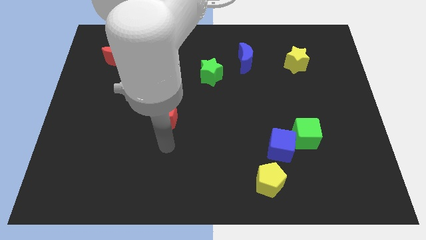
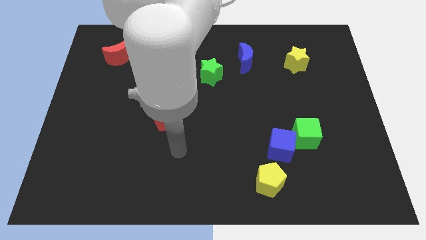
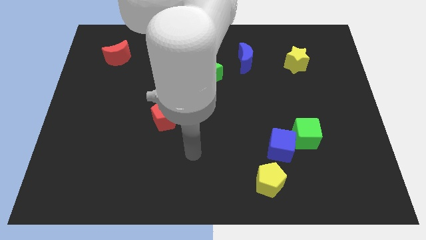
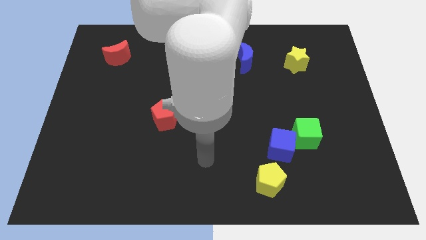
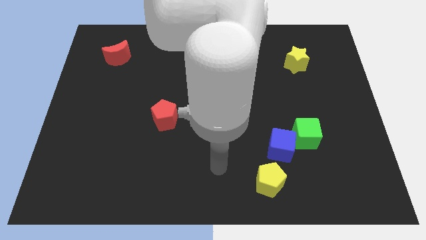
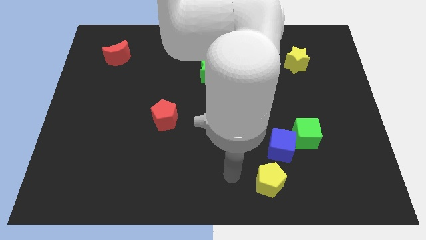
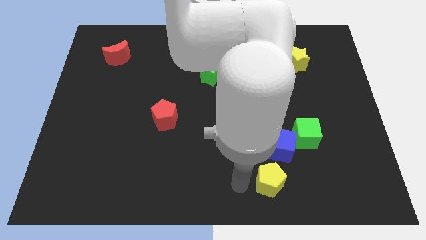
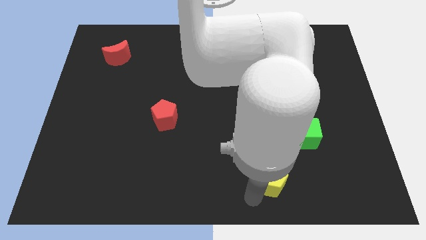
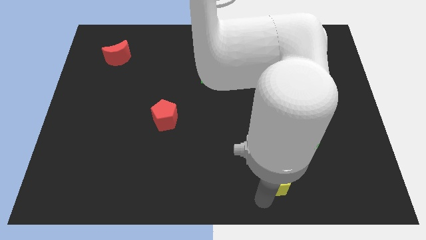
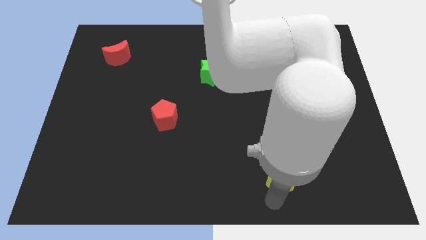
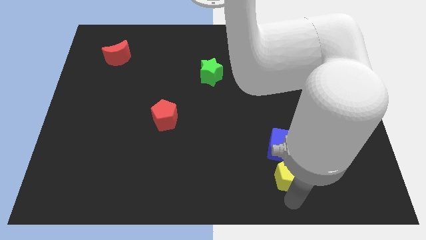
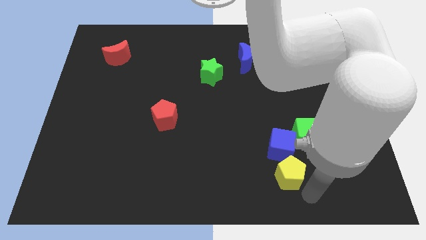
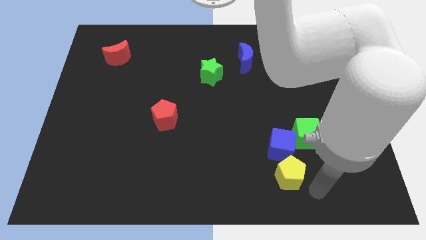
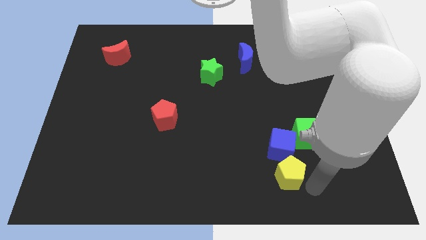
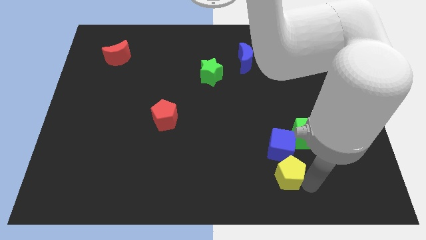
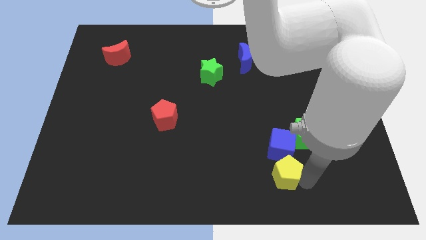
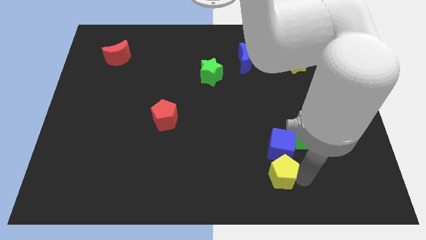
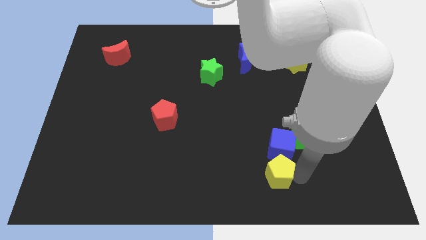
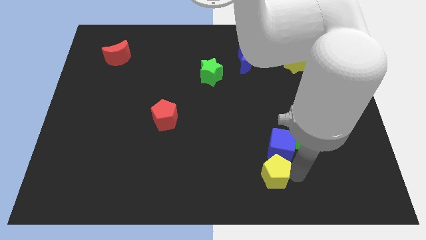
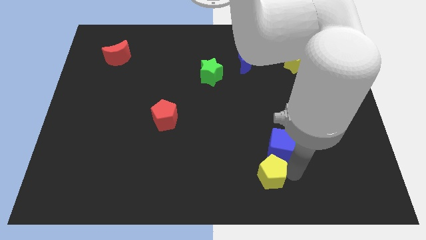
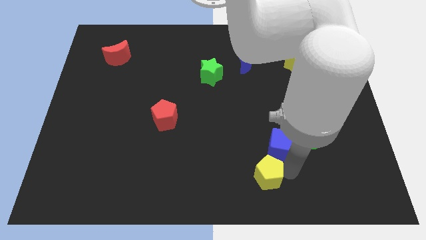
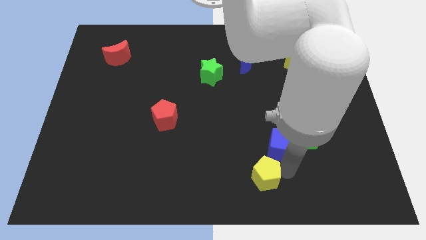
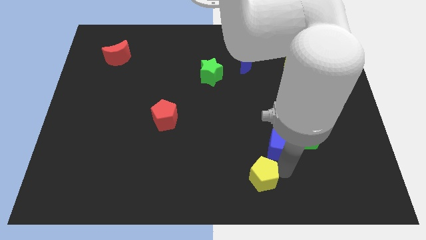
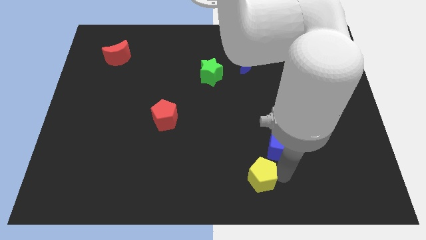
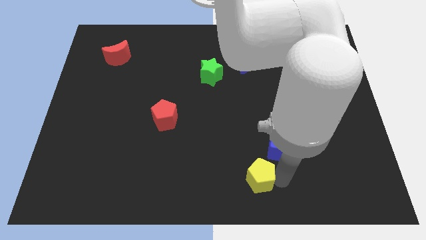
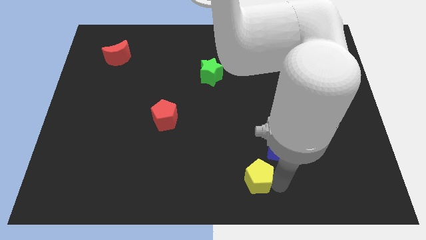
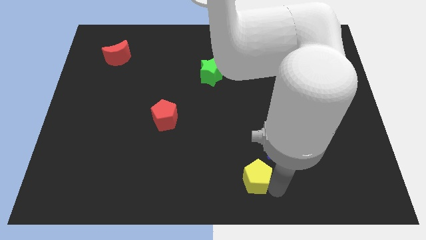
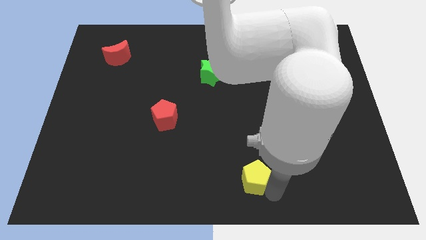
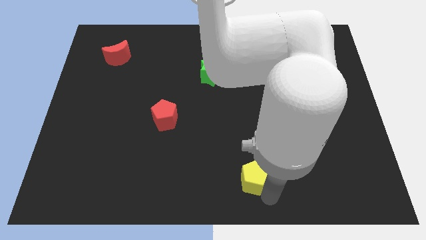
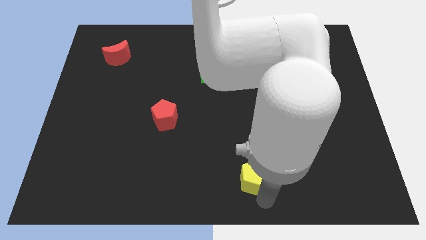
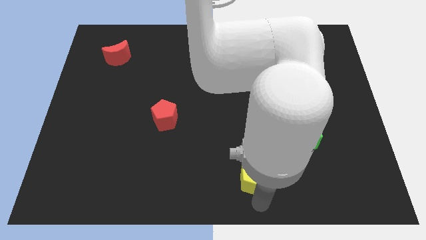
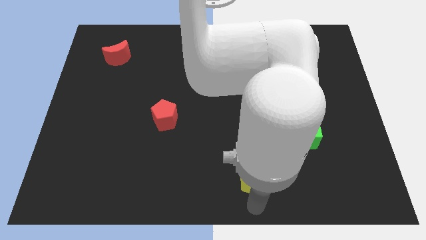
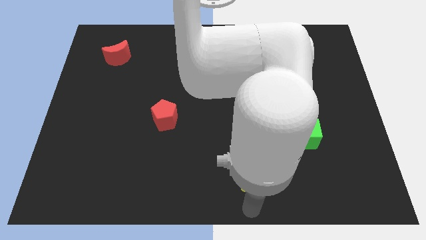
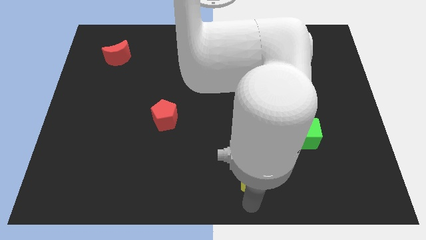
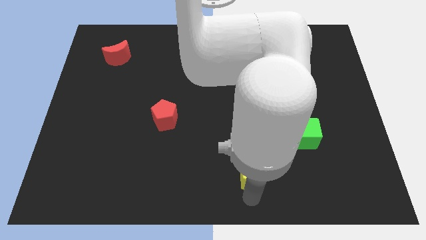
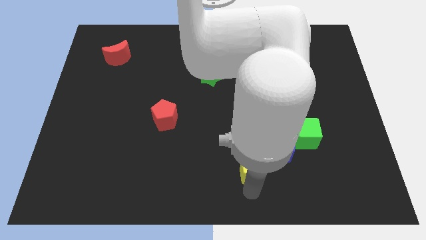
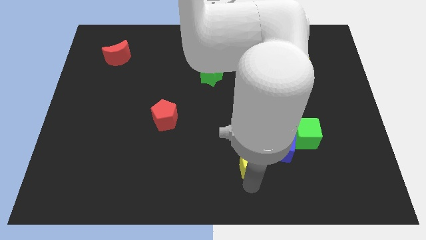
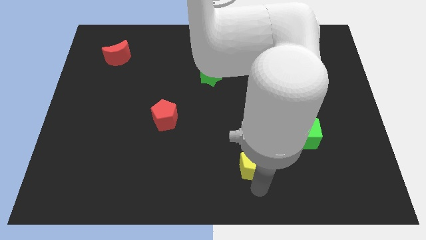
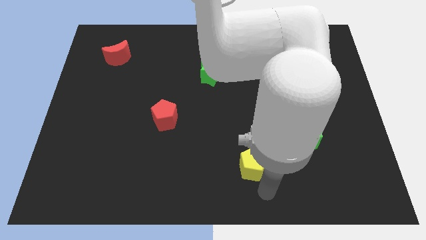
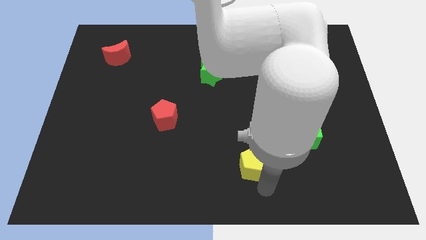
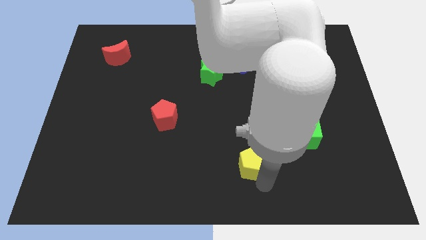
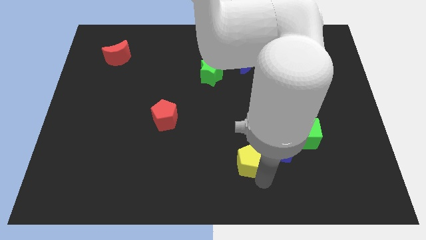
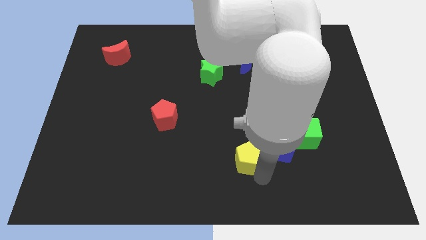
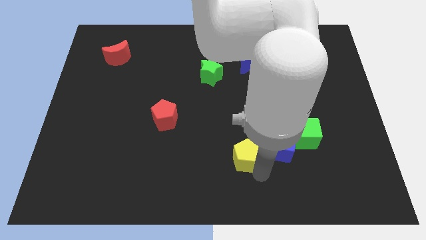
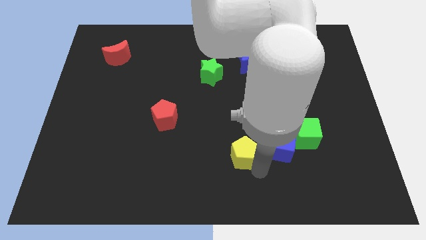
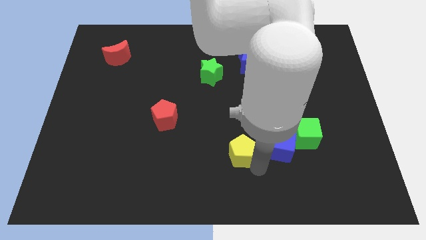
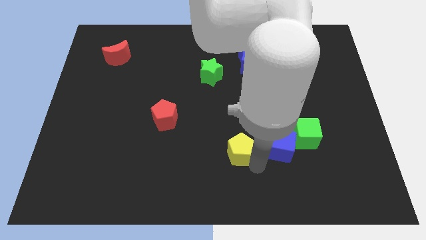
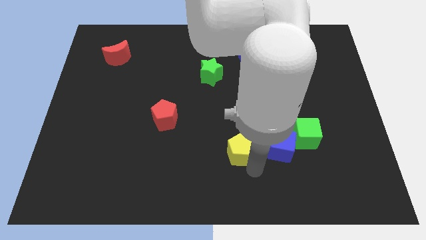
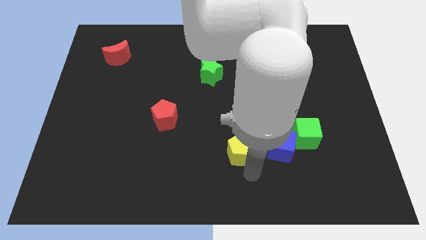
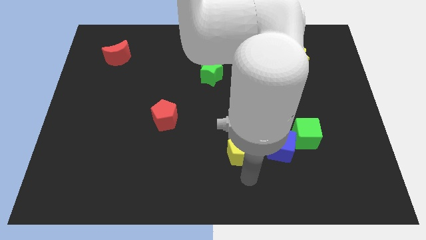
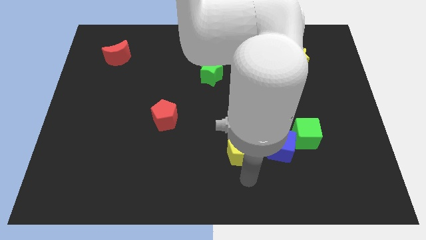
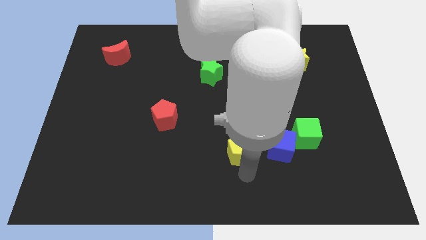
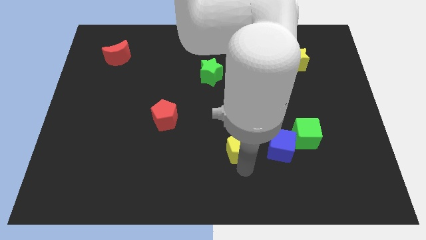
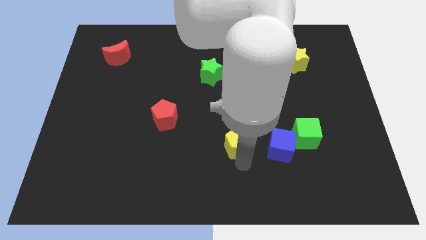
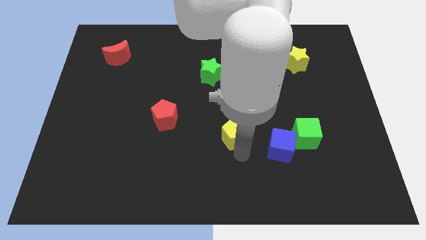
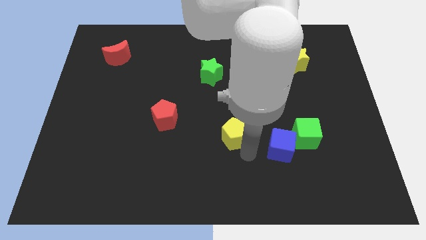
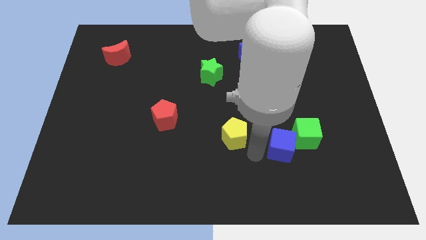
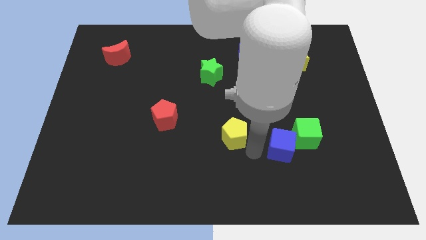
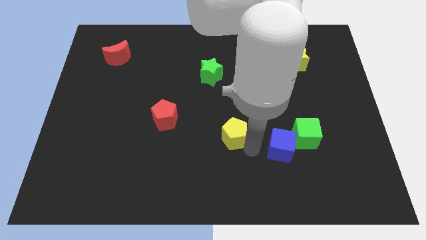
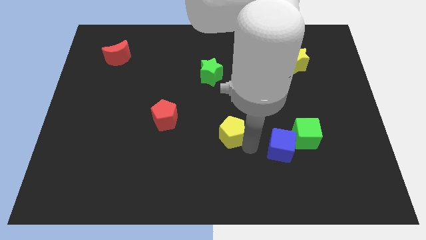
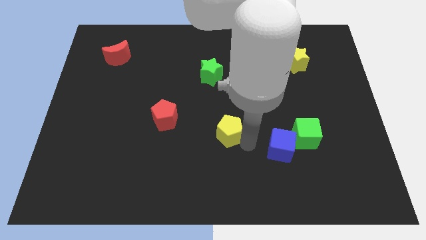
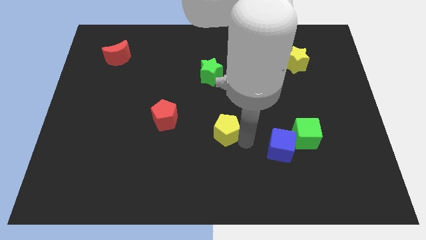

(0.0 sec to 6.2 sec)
slide the yellow pentagon just right of the red pentagon

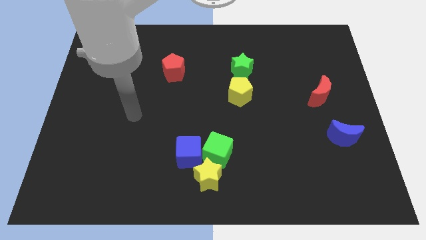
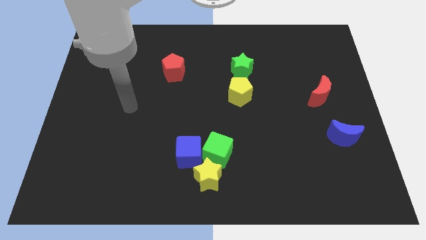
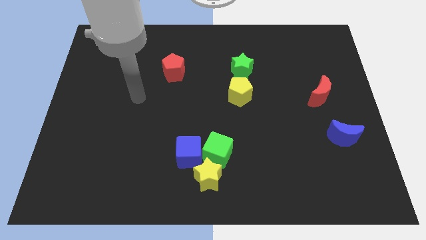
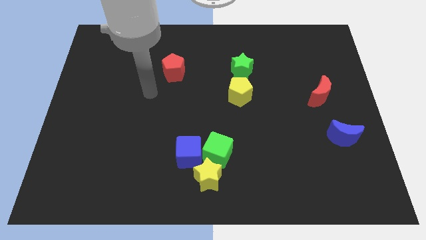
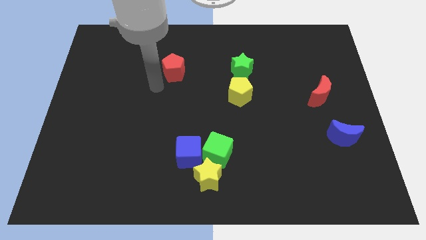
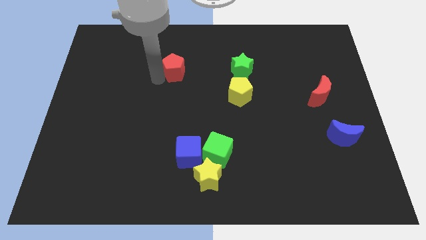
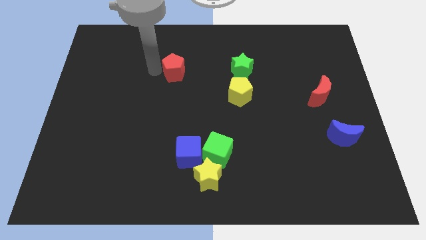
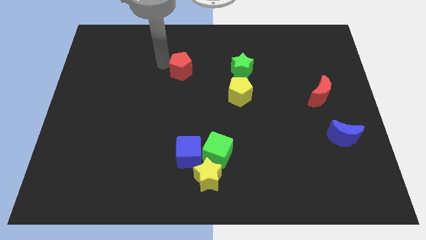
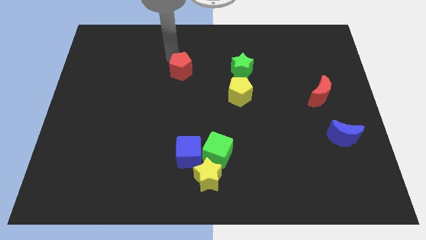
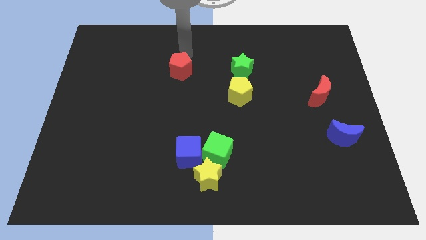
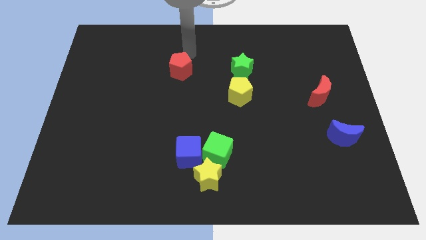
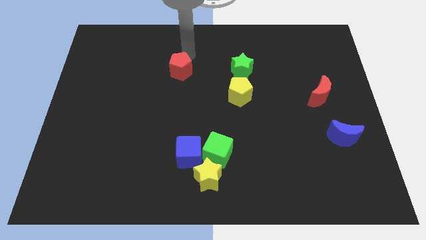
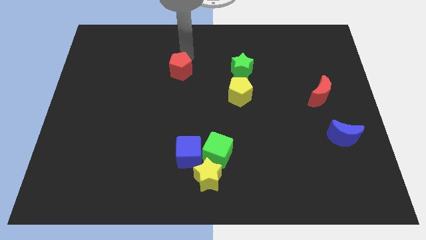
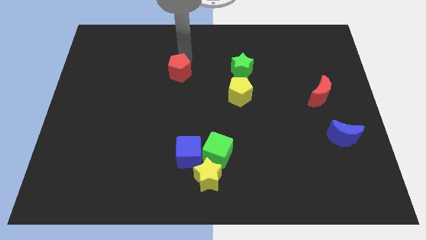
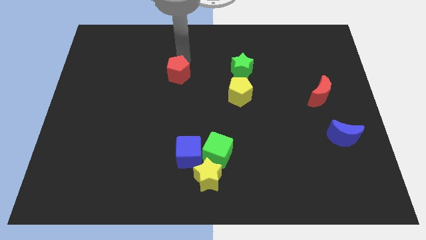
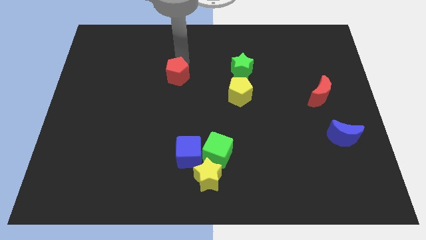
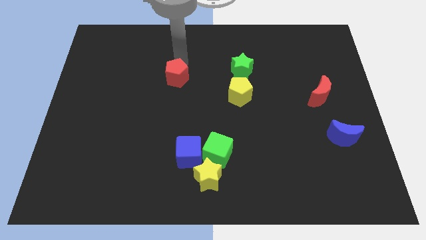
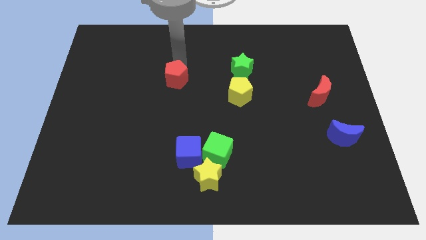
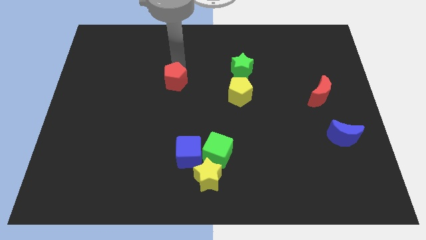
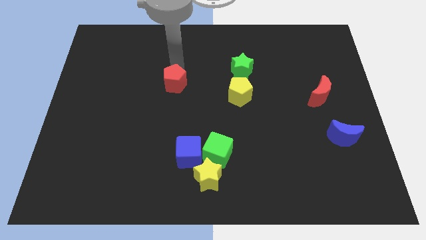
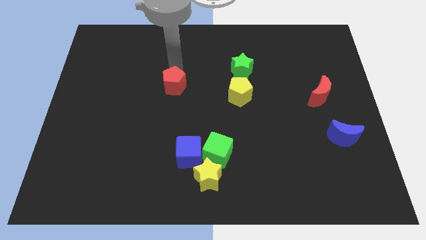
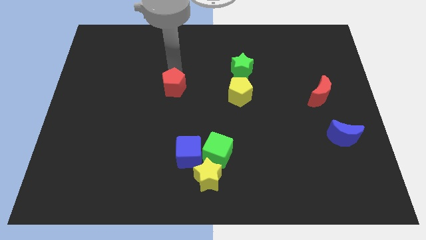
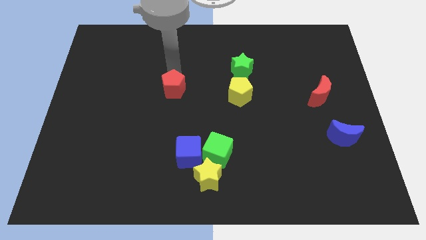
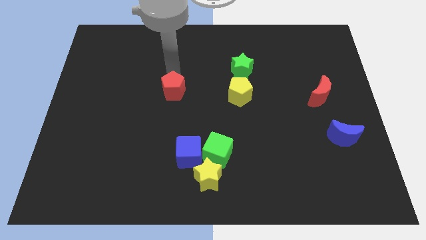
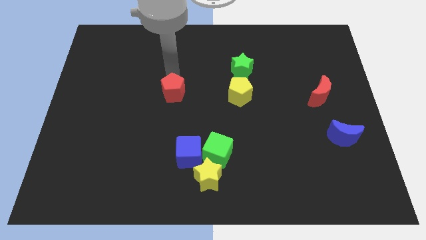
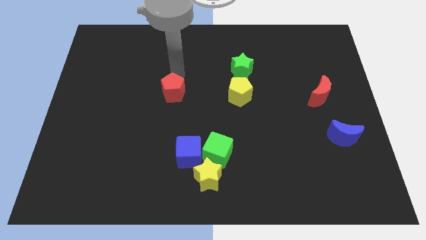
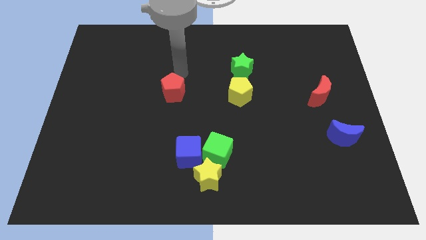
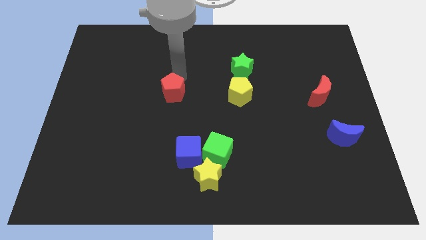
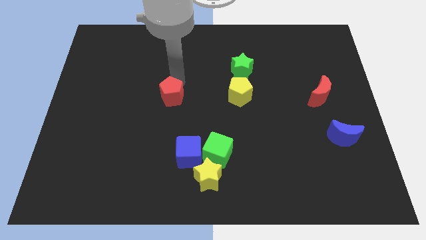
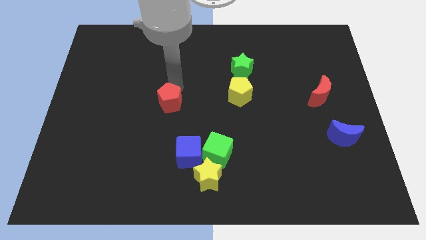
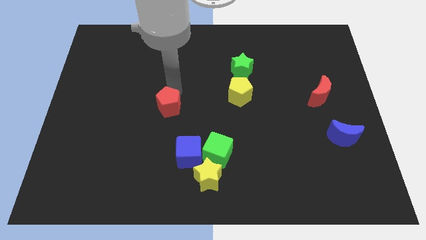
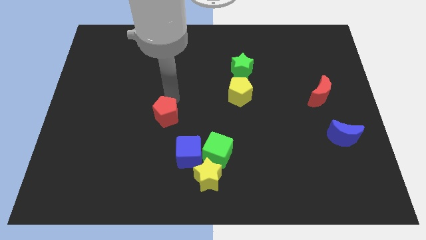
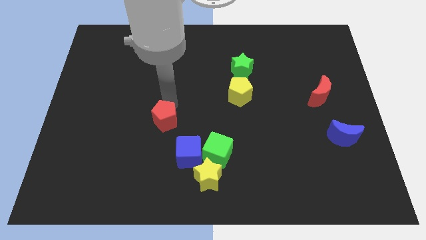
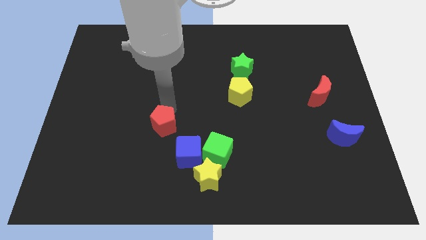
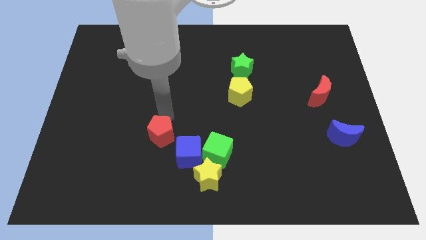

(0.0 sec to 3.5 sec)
push the red pentagon just left of the green cube
